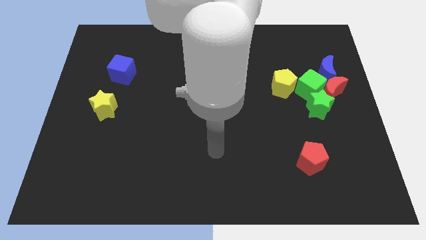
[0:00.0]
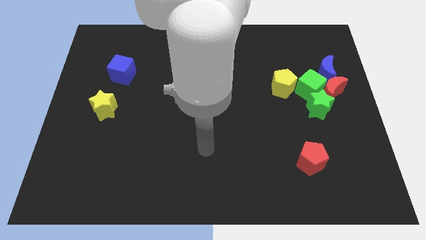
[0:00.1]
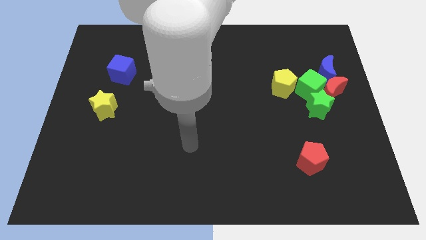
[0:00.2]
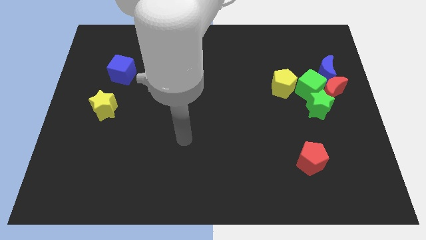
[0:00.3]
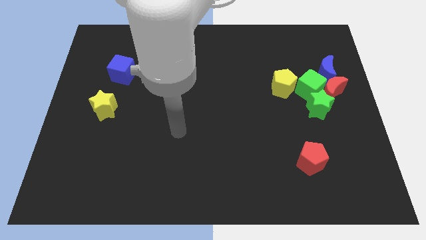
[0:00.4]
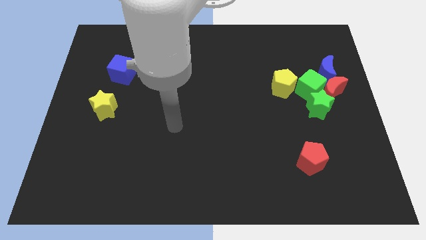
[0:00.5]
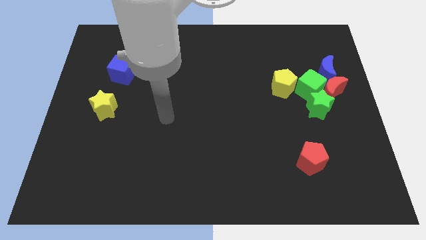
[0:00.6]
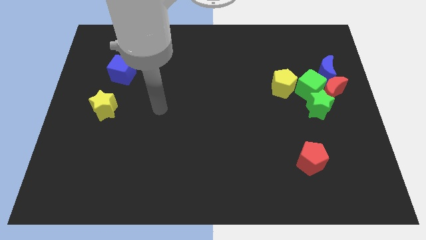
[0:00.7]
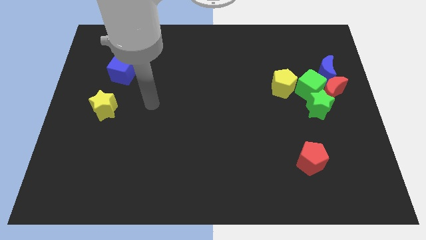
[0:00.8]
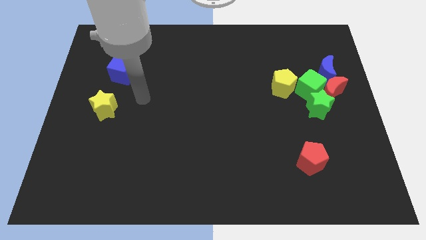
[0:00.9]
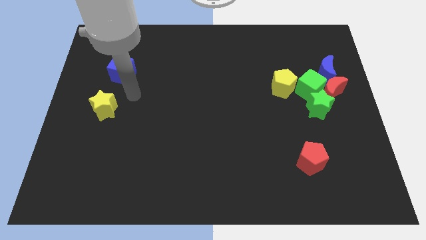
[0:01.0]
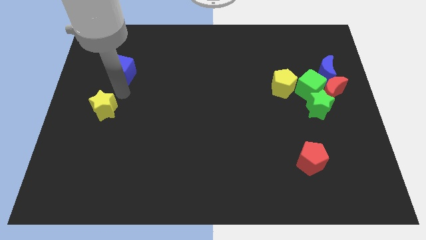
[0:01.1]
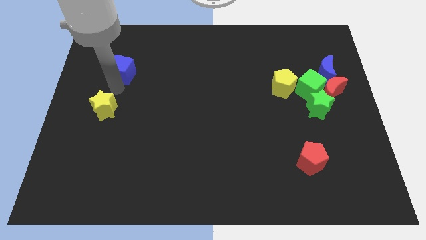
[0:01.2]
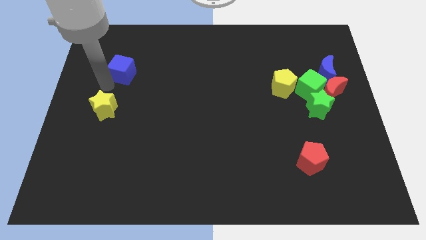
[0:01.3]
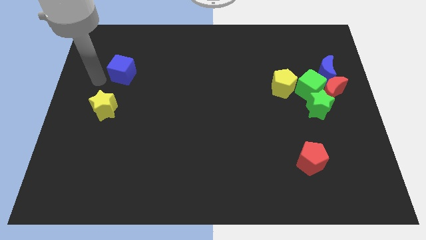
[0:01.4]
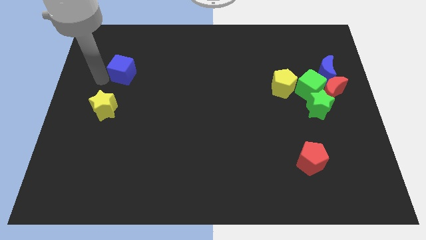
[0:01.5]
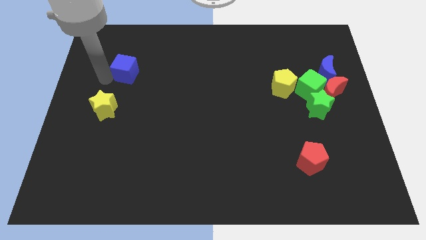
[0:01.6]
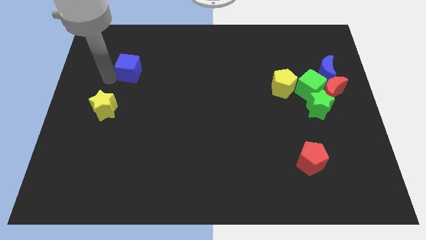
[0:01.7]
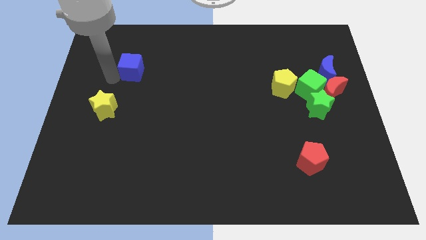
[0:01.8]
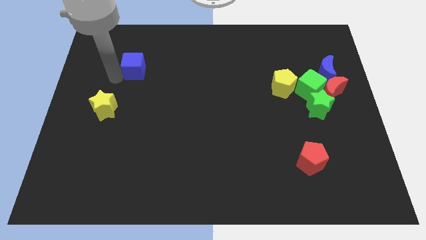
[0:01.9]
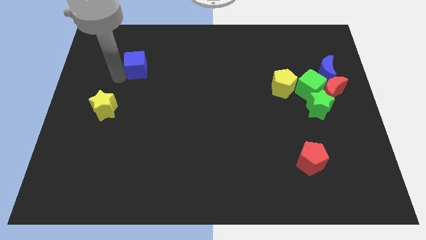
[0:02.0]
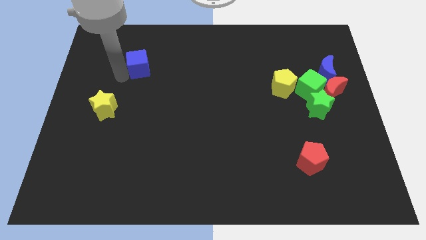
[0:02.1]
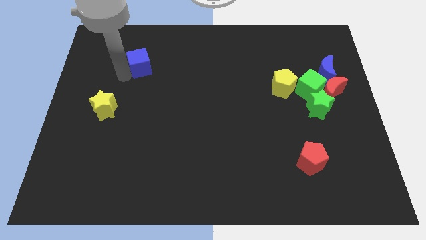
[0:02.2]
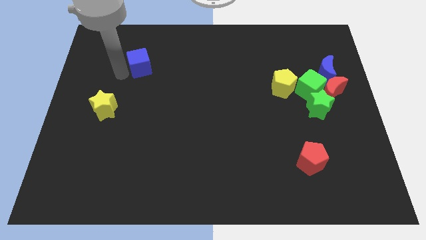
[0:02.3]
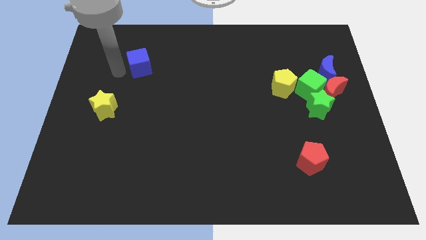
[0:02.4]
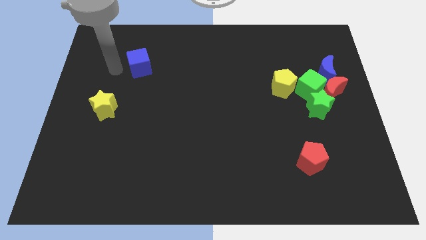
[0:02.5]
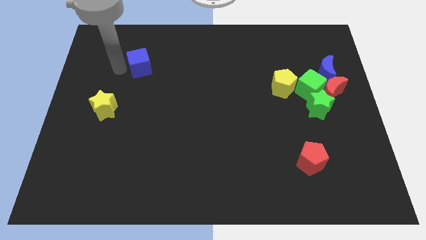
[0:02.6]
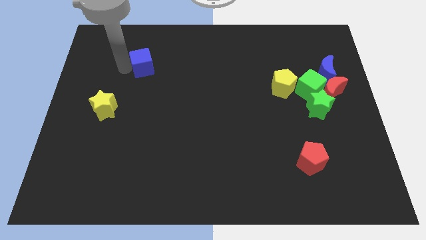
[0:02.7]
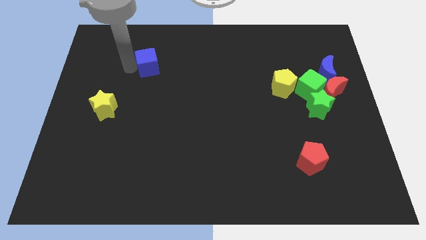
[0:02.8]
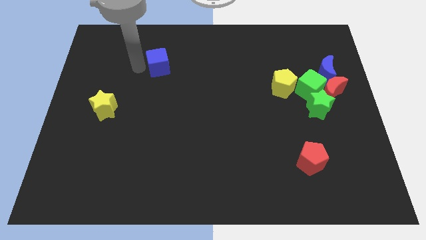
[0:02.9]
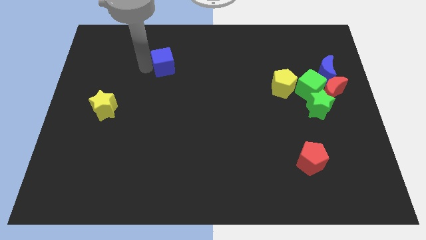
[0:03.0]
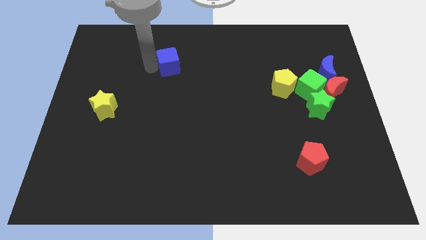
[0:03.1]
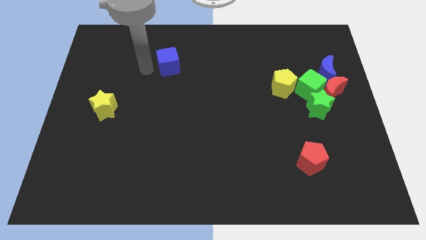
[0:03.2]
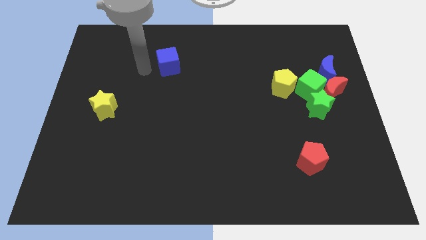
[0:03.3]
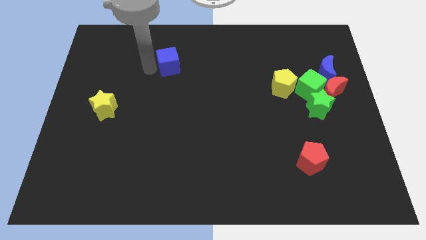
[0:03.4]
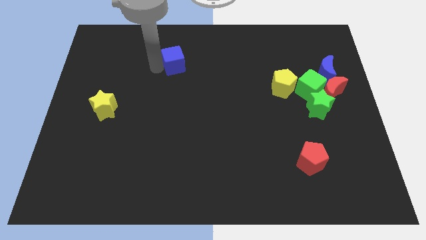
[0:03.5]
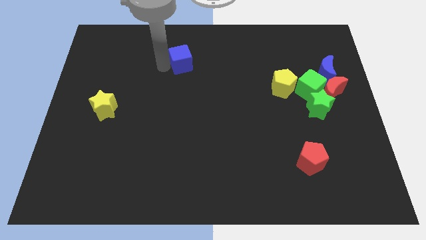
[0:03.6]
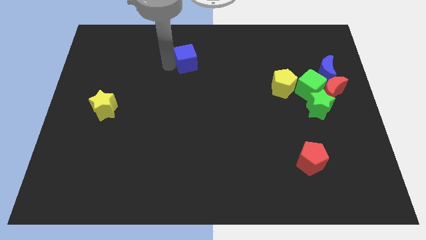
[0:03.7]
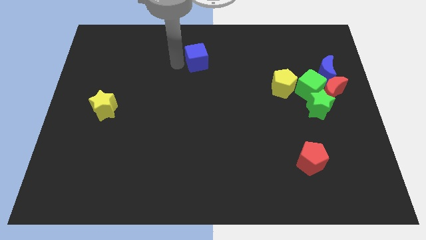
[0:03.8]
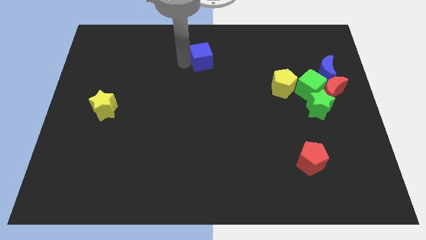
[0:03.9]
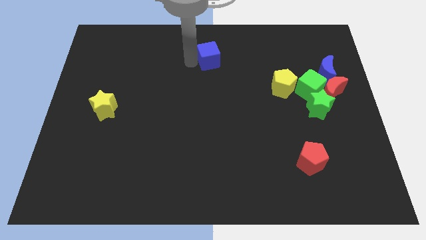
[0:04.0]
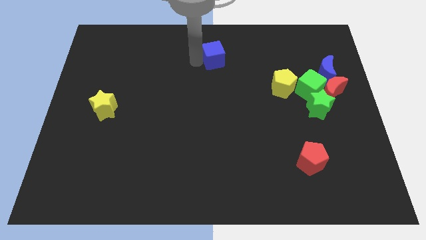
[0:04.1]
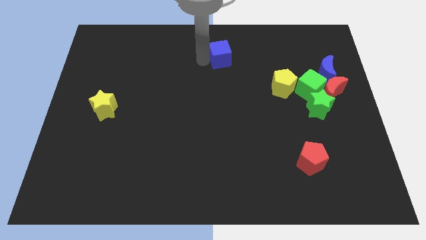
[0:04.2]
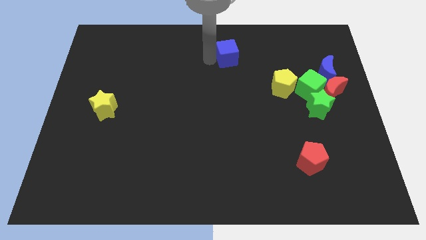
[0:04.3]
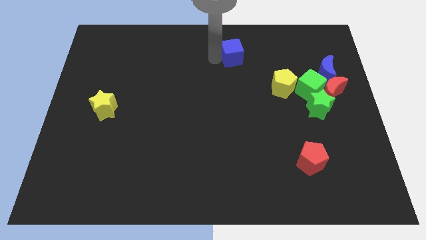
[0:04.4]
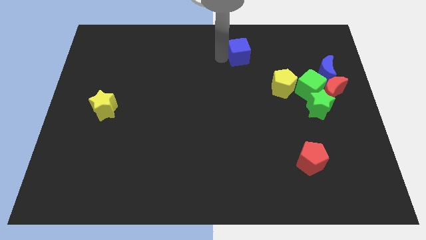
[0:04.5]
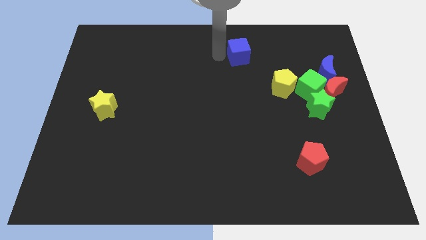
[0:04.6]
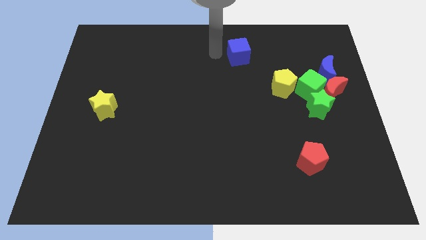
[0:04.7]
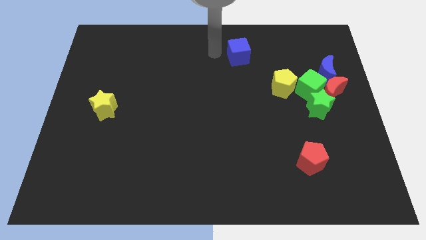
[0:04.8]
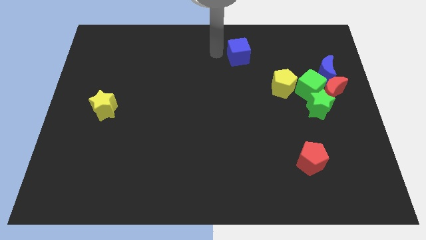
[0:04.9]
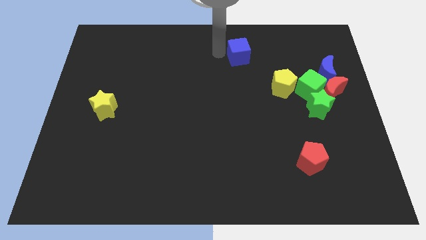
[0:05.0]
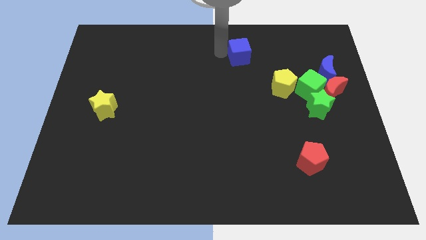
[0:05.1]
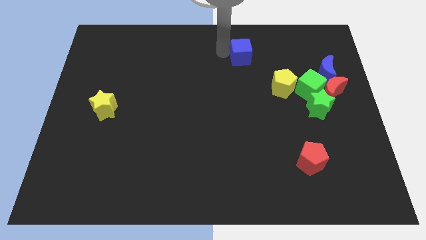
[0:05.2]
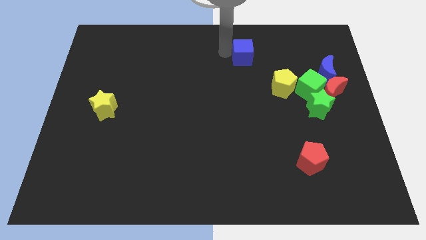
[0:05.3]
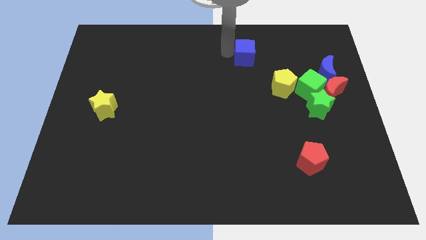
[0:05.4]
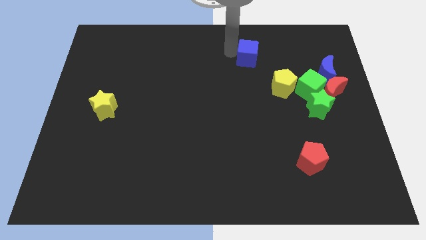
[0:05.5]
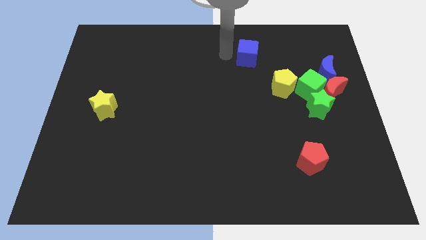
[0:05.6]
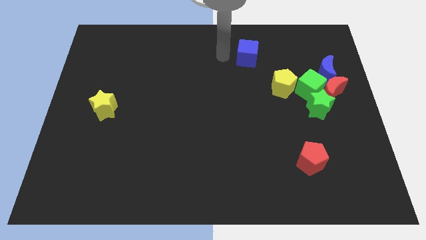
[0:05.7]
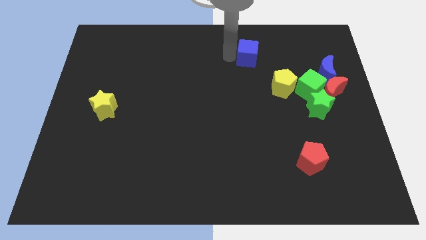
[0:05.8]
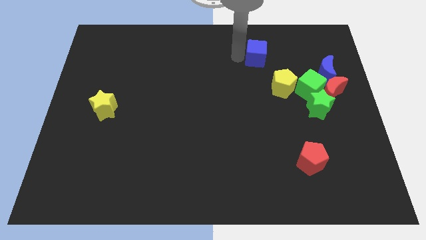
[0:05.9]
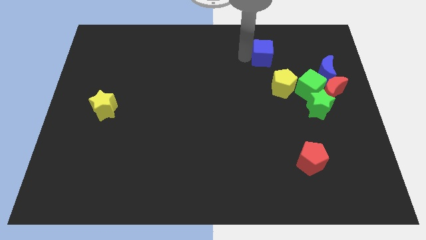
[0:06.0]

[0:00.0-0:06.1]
push the blue cube above the yellow pentagon
